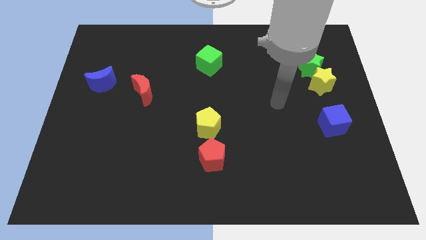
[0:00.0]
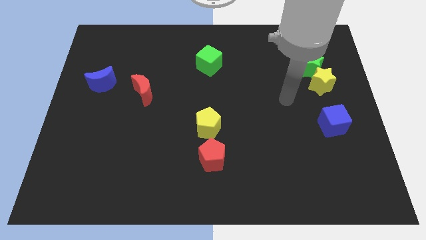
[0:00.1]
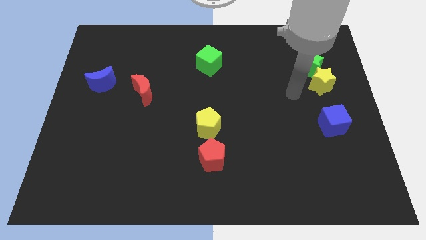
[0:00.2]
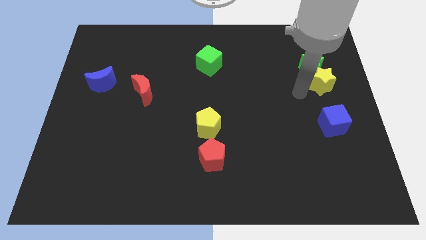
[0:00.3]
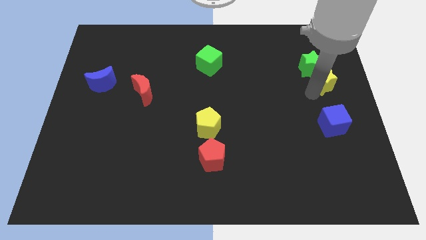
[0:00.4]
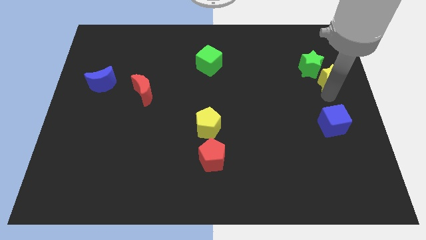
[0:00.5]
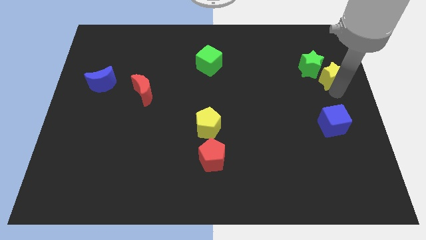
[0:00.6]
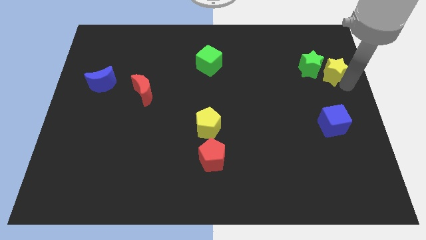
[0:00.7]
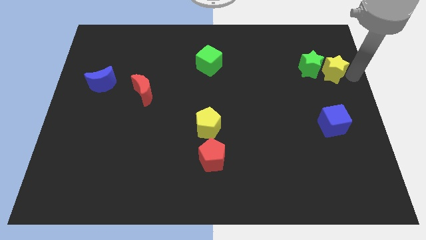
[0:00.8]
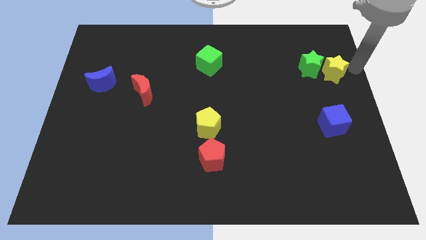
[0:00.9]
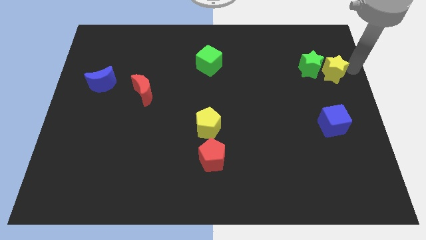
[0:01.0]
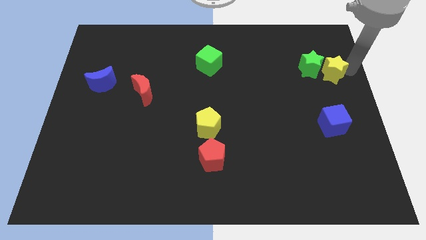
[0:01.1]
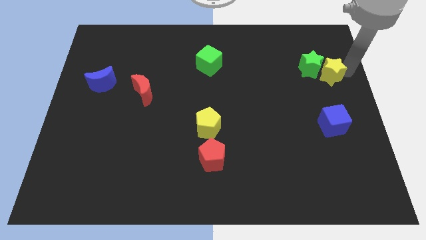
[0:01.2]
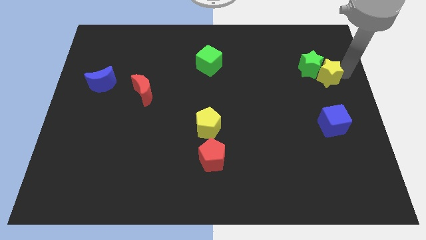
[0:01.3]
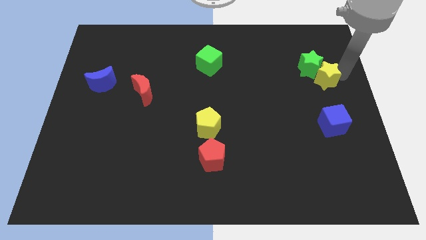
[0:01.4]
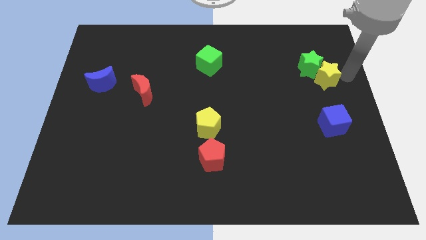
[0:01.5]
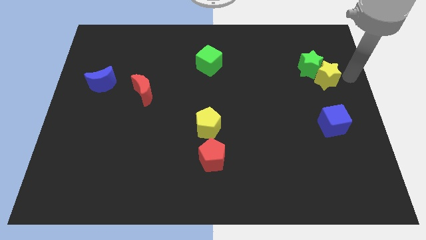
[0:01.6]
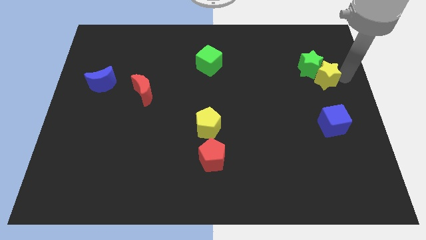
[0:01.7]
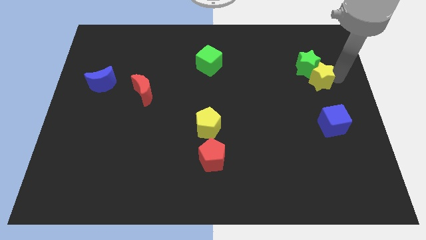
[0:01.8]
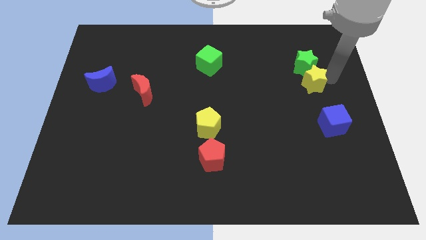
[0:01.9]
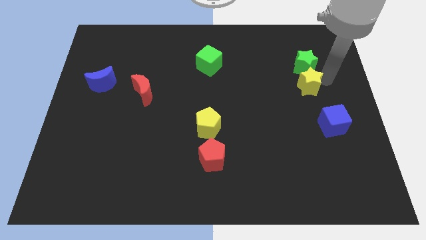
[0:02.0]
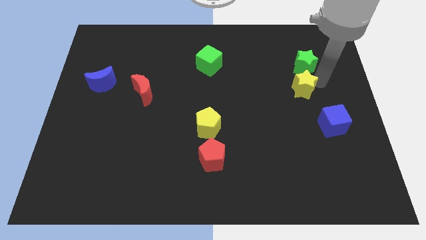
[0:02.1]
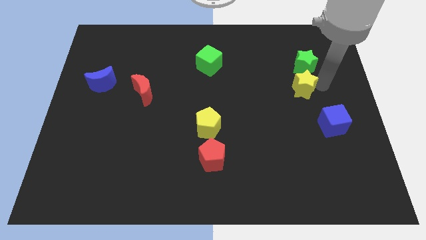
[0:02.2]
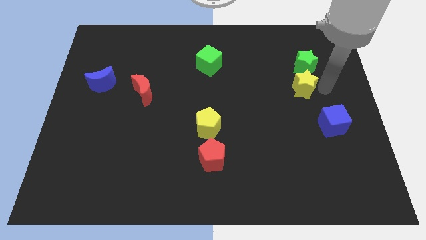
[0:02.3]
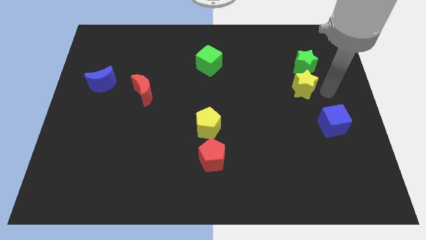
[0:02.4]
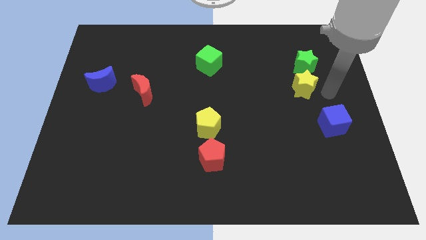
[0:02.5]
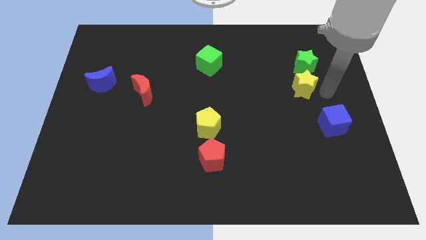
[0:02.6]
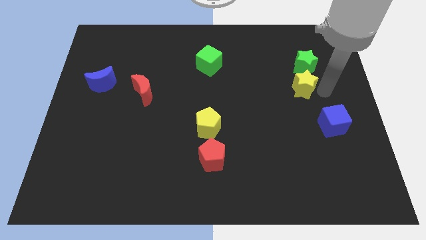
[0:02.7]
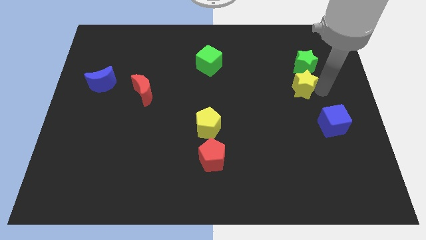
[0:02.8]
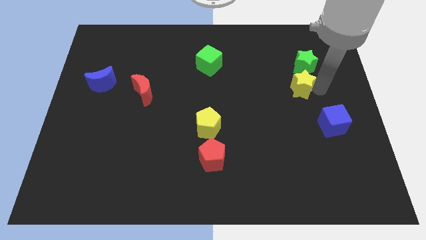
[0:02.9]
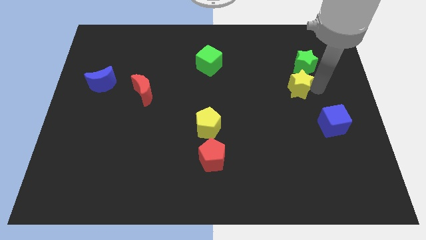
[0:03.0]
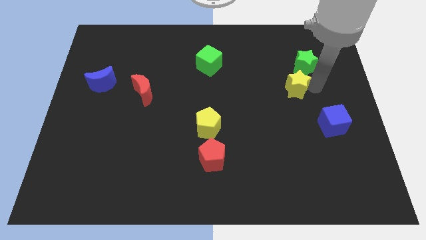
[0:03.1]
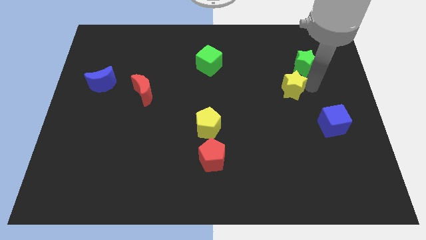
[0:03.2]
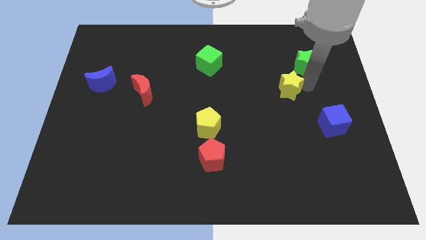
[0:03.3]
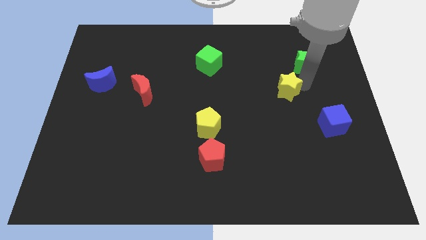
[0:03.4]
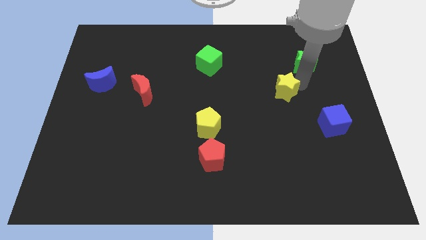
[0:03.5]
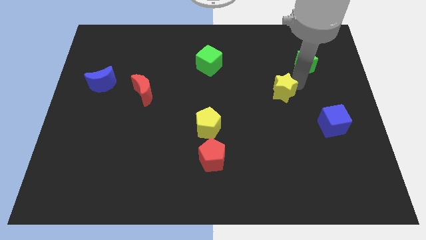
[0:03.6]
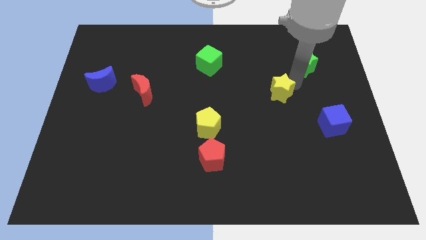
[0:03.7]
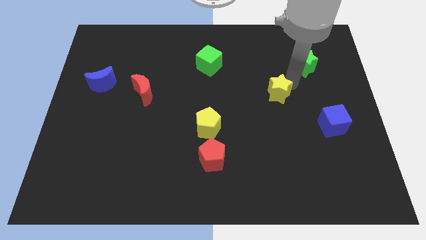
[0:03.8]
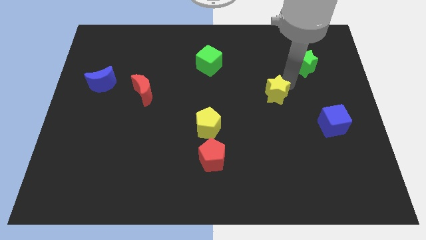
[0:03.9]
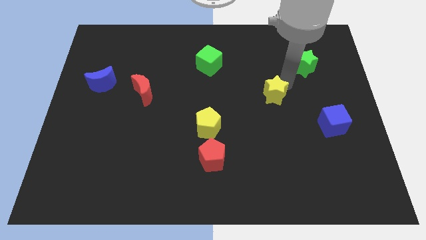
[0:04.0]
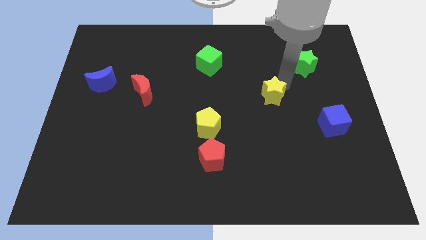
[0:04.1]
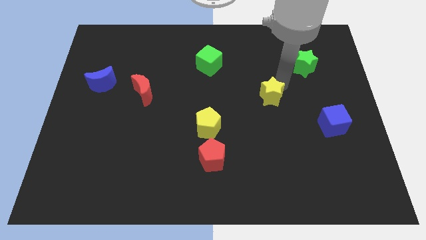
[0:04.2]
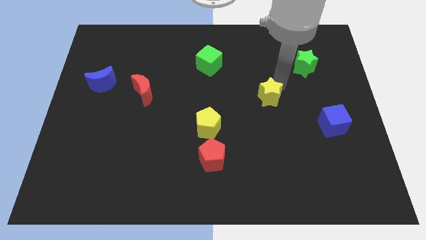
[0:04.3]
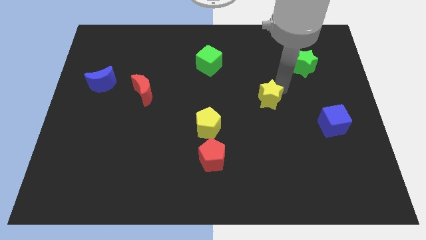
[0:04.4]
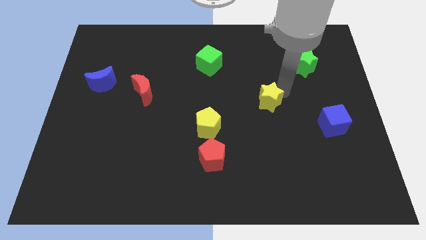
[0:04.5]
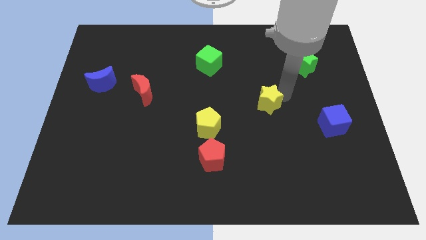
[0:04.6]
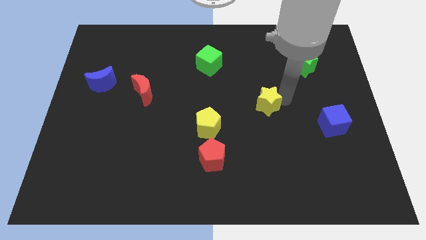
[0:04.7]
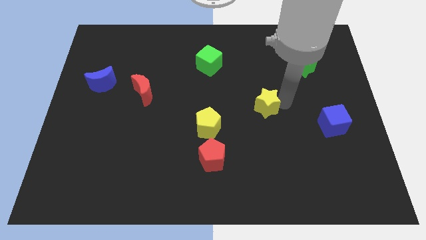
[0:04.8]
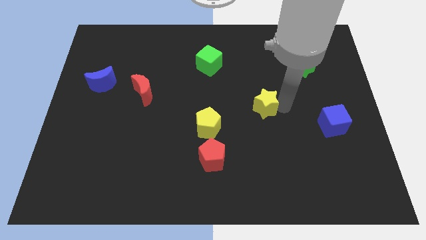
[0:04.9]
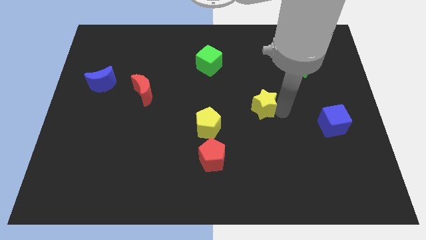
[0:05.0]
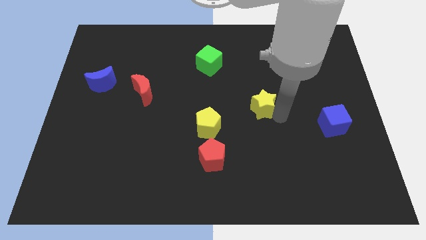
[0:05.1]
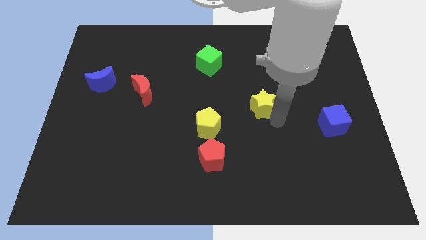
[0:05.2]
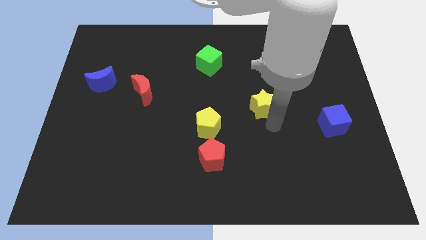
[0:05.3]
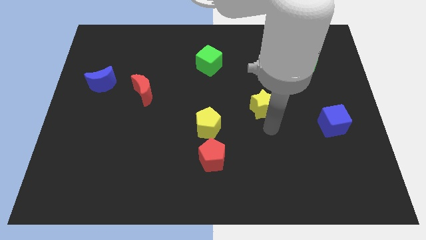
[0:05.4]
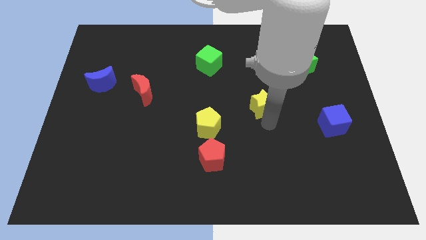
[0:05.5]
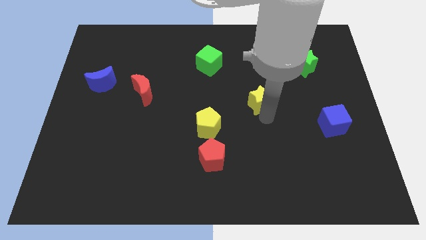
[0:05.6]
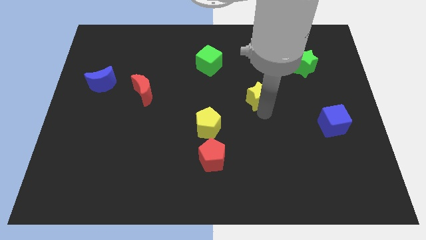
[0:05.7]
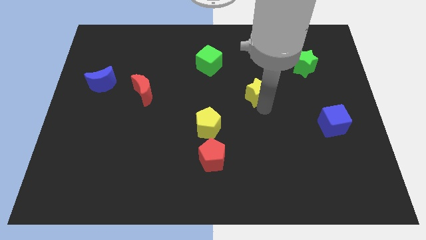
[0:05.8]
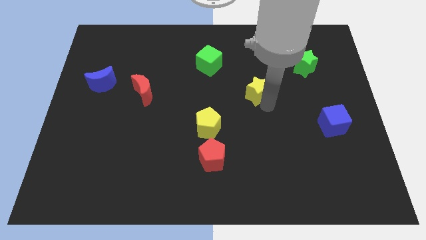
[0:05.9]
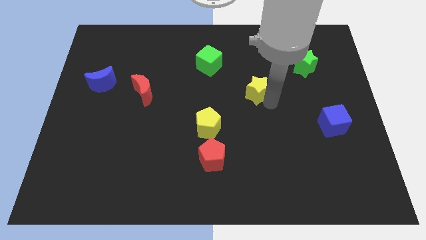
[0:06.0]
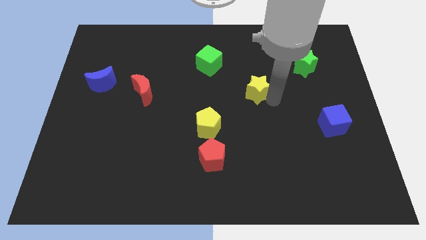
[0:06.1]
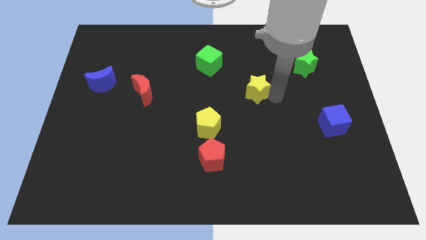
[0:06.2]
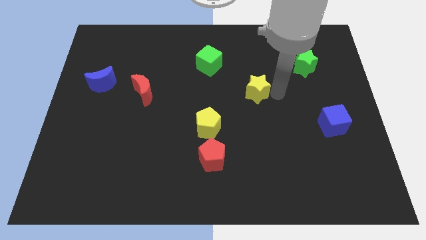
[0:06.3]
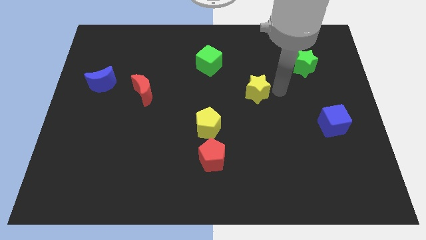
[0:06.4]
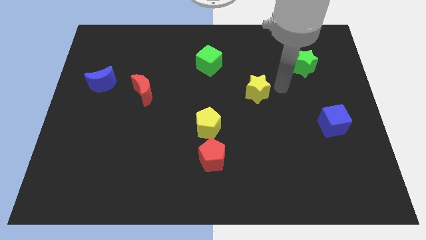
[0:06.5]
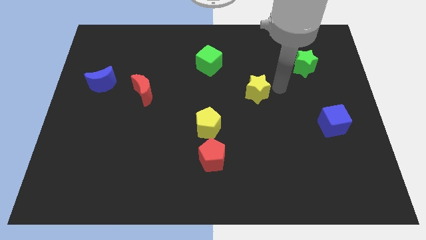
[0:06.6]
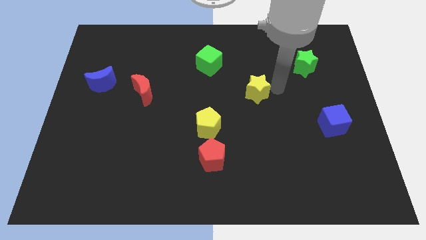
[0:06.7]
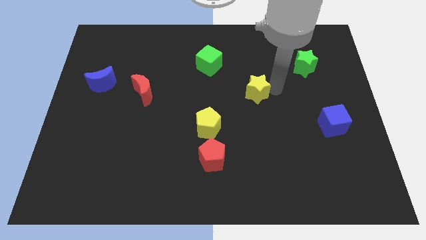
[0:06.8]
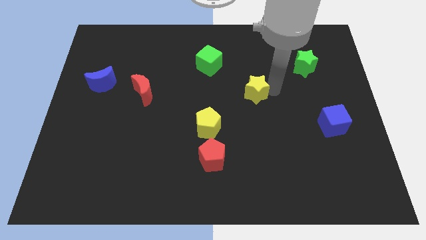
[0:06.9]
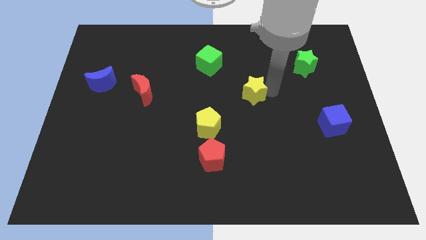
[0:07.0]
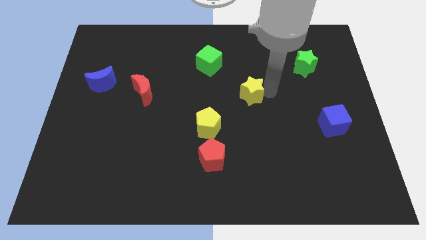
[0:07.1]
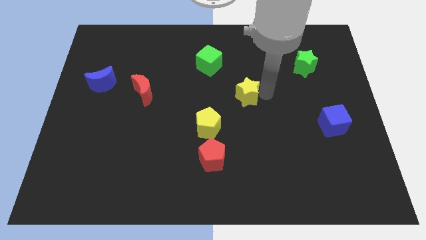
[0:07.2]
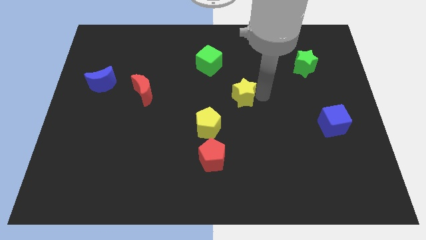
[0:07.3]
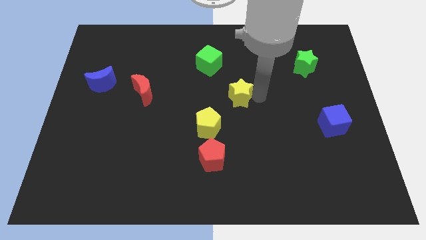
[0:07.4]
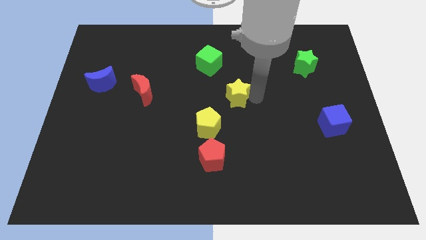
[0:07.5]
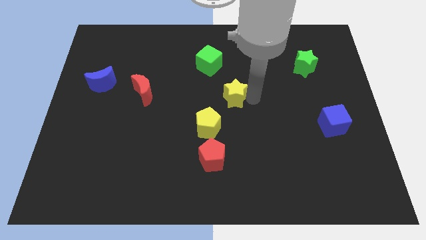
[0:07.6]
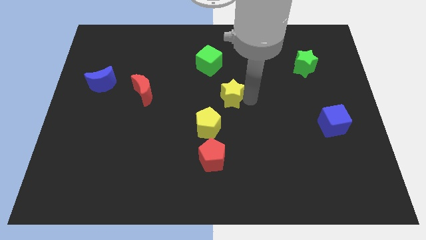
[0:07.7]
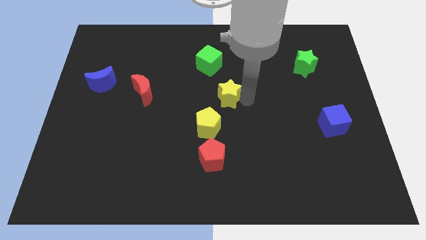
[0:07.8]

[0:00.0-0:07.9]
move the yellow star to the bottom side of the green cube
